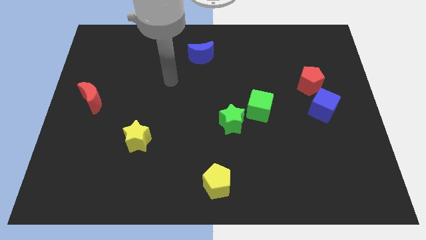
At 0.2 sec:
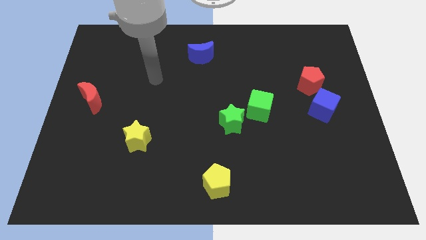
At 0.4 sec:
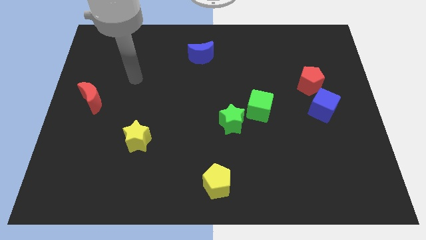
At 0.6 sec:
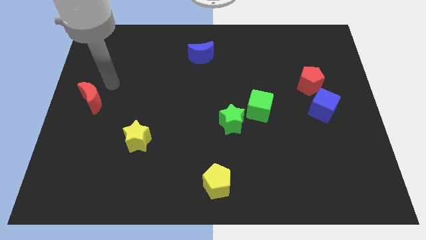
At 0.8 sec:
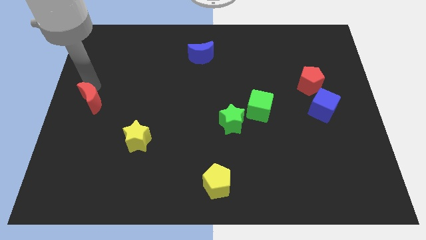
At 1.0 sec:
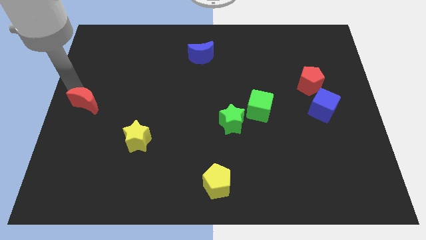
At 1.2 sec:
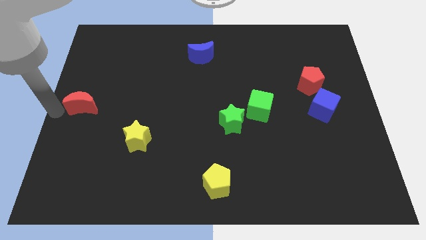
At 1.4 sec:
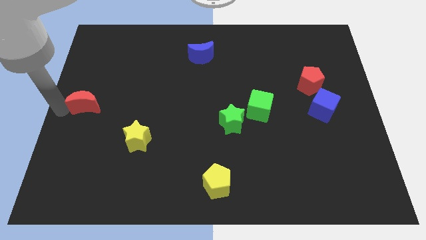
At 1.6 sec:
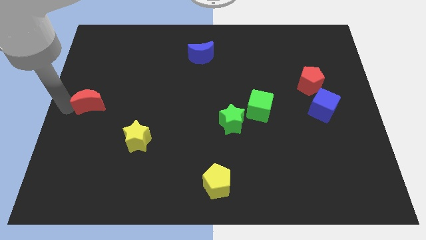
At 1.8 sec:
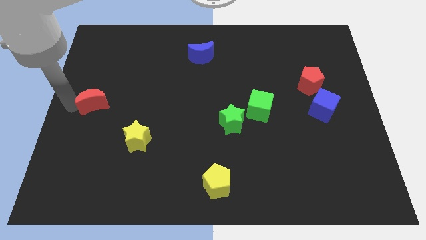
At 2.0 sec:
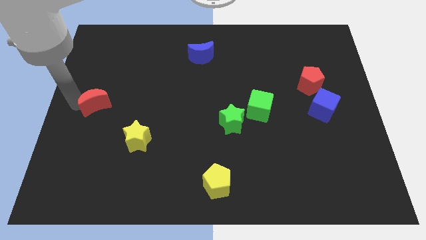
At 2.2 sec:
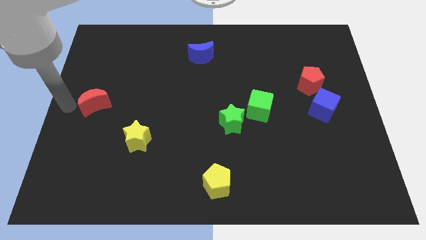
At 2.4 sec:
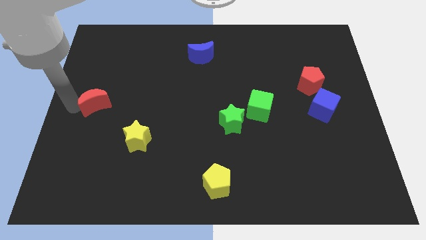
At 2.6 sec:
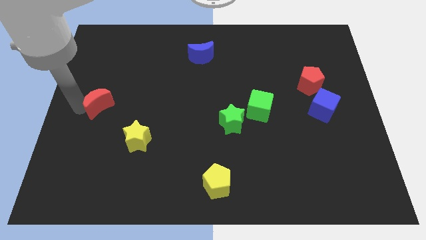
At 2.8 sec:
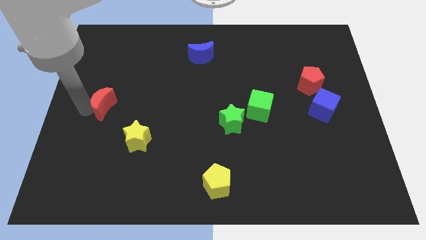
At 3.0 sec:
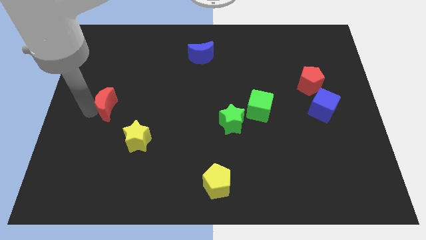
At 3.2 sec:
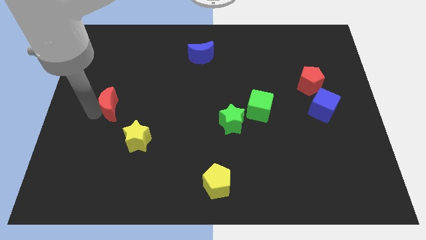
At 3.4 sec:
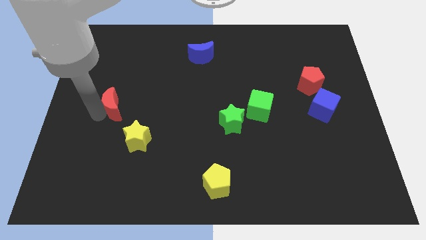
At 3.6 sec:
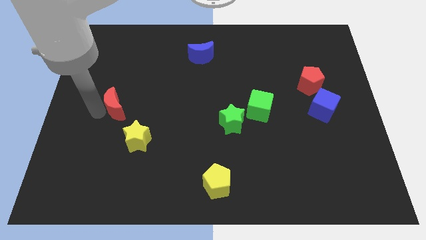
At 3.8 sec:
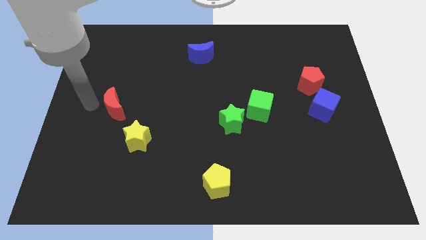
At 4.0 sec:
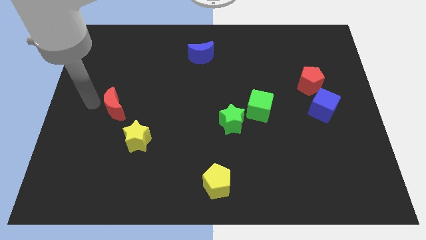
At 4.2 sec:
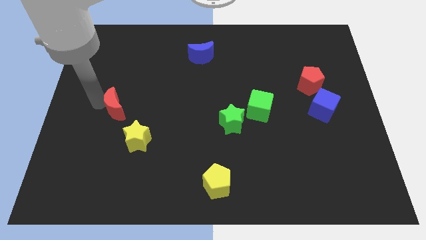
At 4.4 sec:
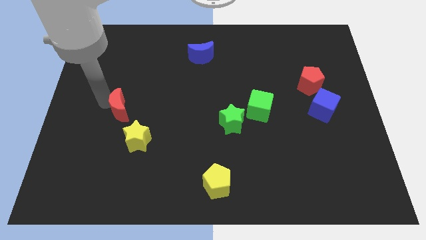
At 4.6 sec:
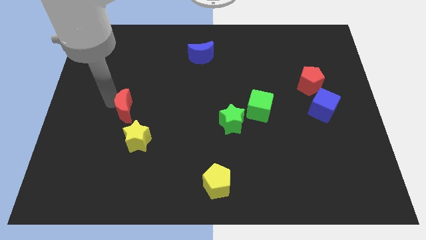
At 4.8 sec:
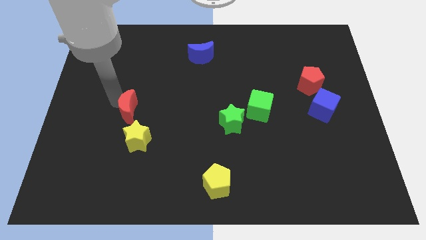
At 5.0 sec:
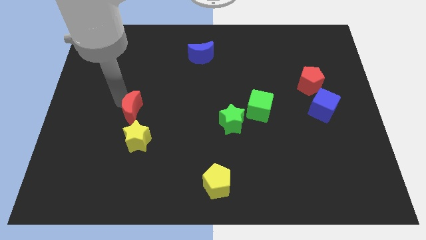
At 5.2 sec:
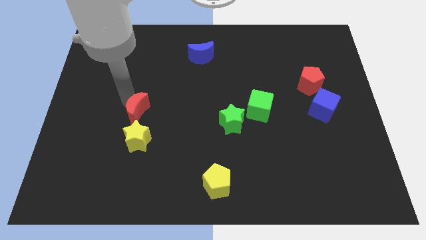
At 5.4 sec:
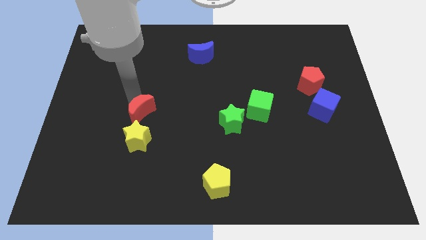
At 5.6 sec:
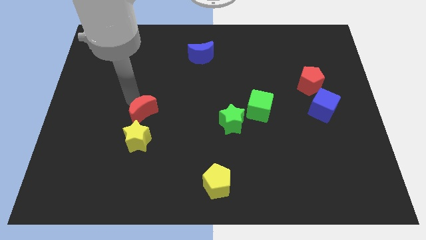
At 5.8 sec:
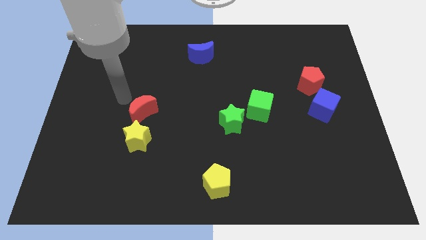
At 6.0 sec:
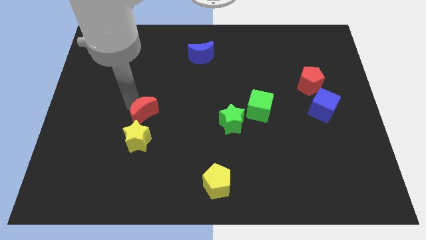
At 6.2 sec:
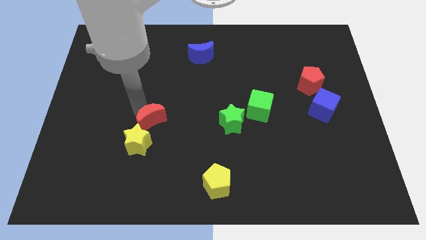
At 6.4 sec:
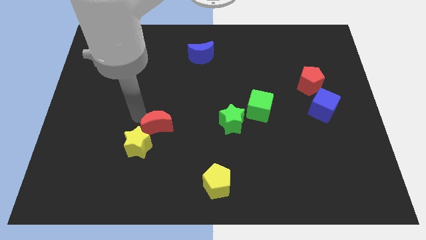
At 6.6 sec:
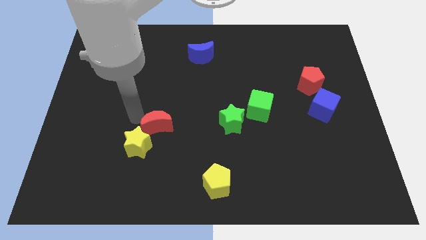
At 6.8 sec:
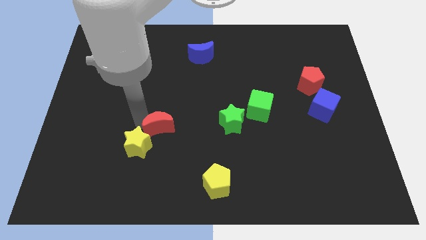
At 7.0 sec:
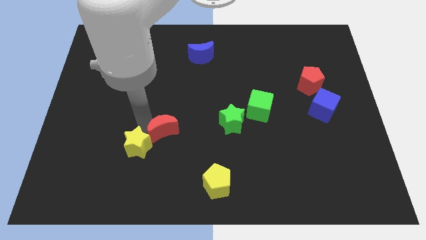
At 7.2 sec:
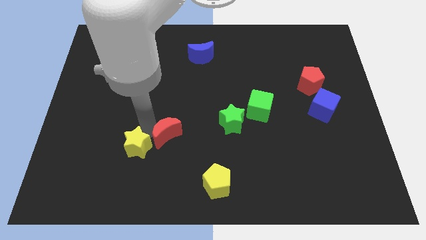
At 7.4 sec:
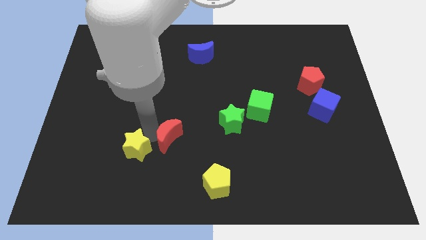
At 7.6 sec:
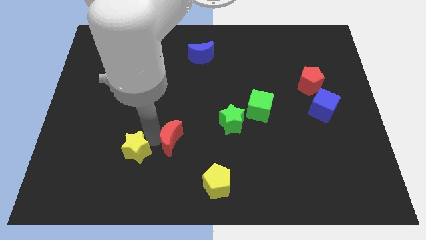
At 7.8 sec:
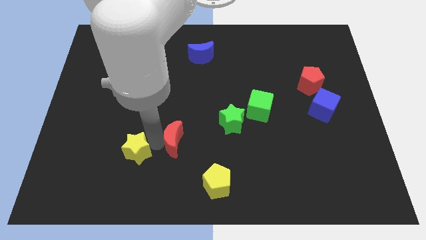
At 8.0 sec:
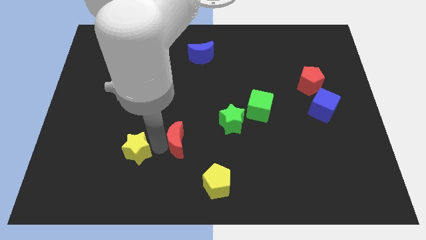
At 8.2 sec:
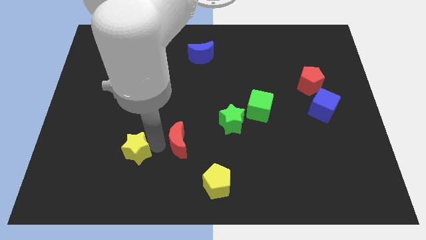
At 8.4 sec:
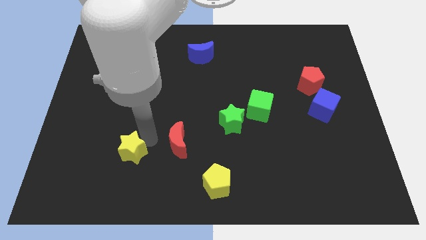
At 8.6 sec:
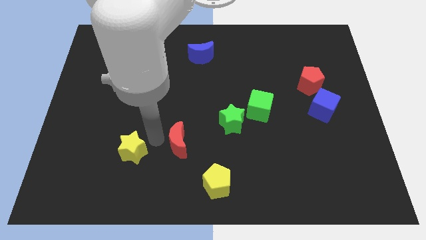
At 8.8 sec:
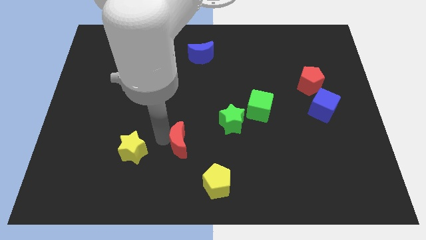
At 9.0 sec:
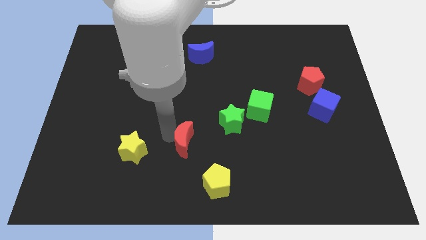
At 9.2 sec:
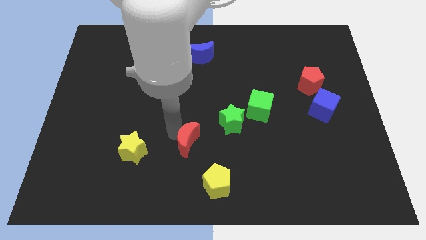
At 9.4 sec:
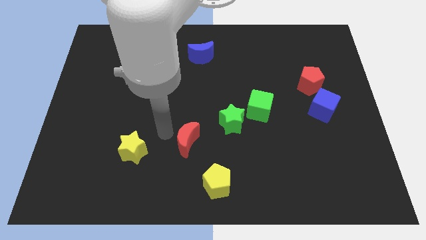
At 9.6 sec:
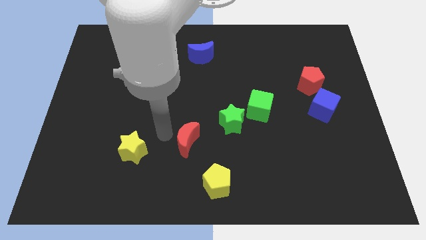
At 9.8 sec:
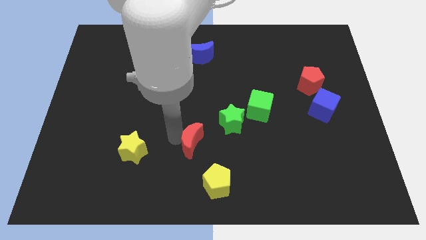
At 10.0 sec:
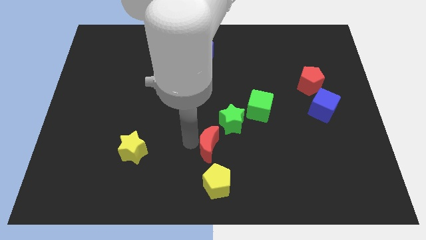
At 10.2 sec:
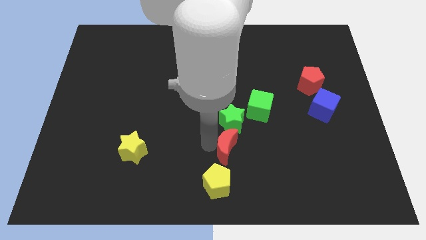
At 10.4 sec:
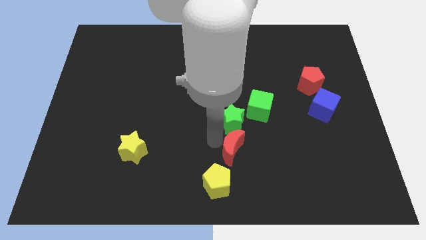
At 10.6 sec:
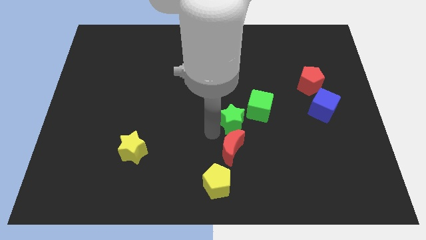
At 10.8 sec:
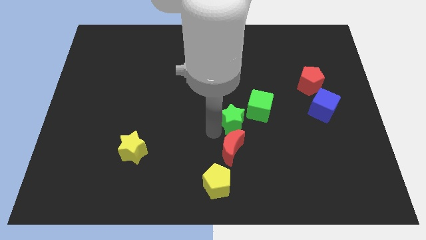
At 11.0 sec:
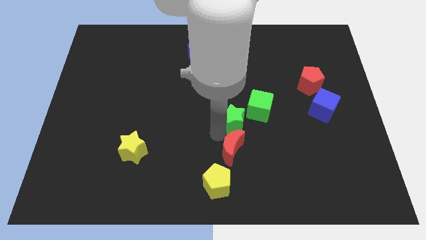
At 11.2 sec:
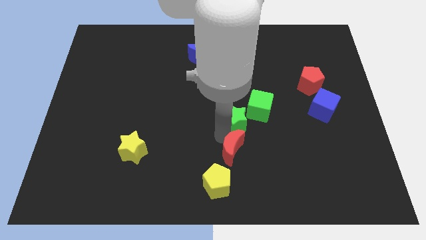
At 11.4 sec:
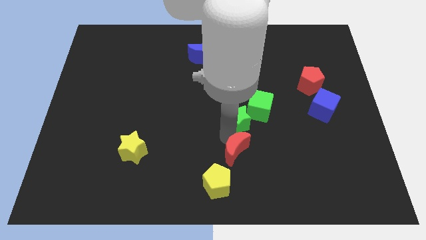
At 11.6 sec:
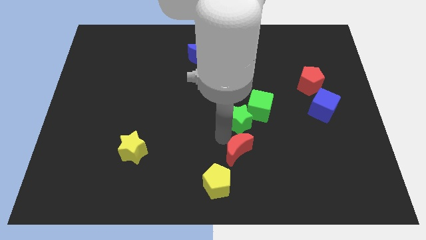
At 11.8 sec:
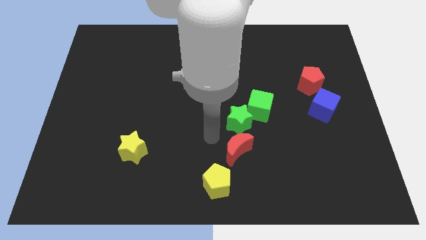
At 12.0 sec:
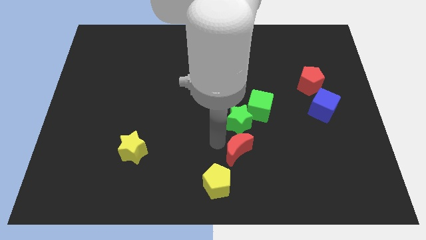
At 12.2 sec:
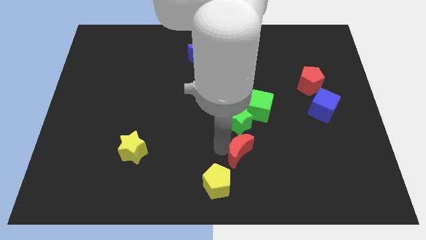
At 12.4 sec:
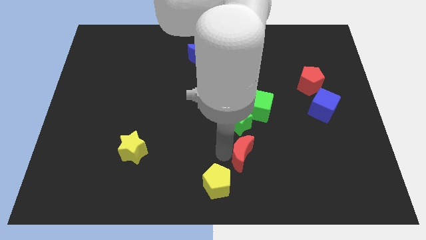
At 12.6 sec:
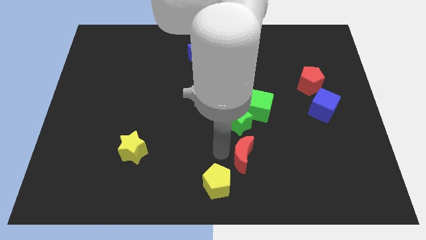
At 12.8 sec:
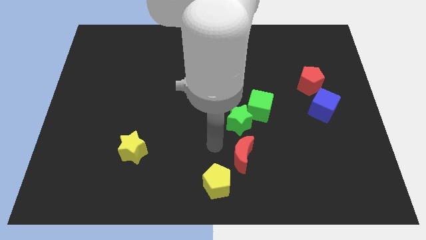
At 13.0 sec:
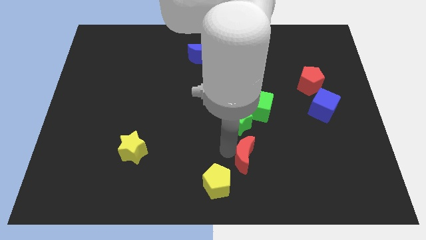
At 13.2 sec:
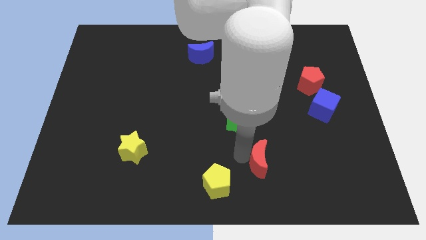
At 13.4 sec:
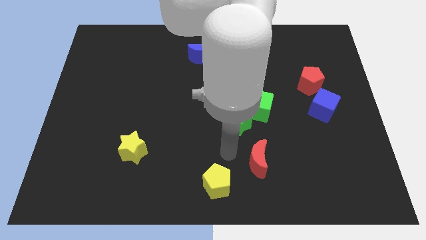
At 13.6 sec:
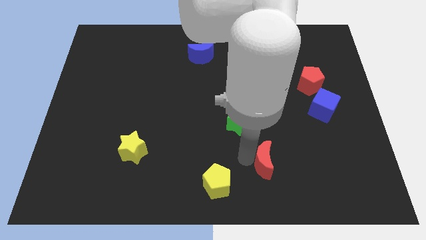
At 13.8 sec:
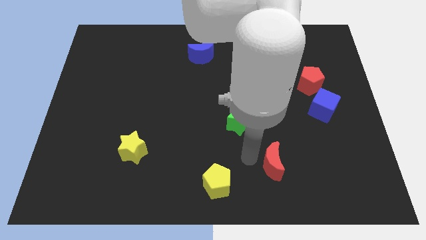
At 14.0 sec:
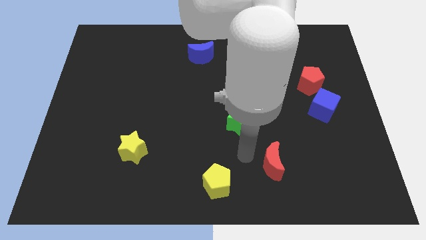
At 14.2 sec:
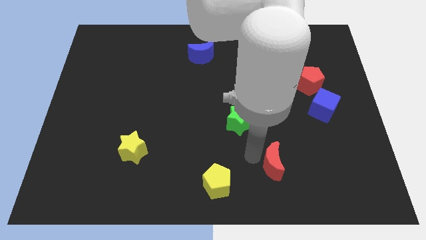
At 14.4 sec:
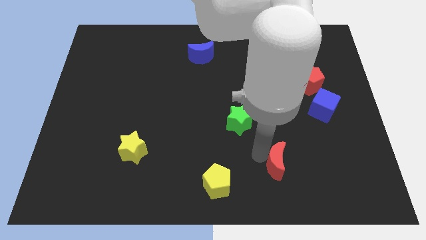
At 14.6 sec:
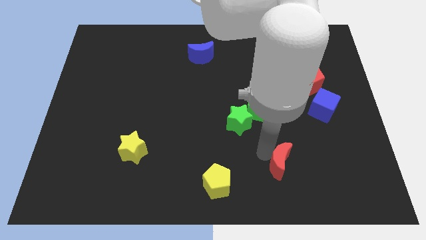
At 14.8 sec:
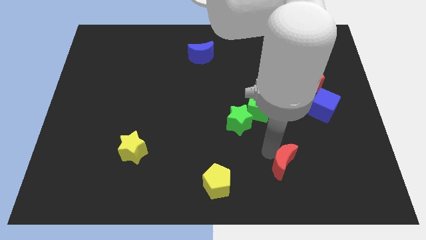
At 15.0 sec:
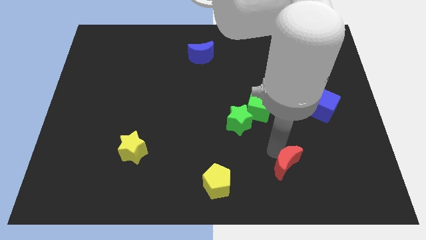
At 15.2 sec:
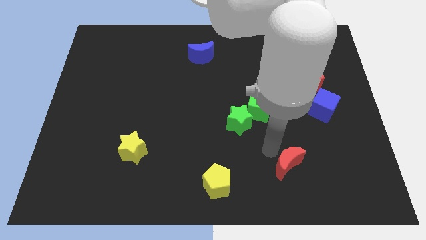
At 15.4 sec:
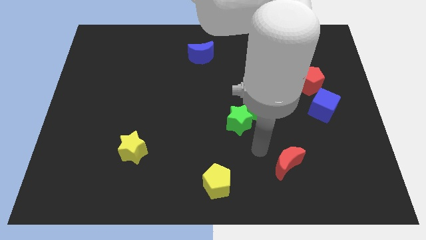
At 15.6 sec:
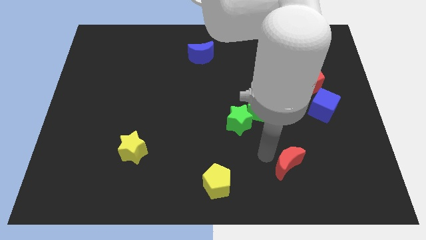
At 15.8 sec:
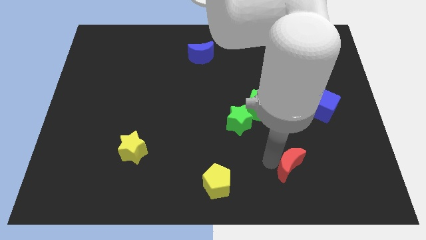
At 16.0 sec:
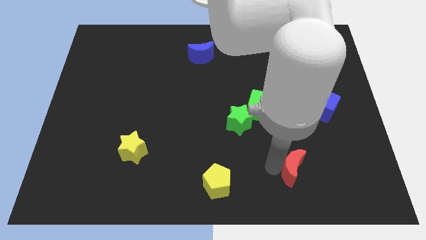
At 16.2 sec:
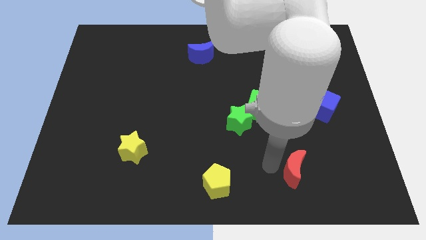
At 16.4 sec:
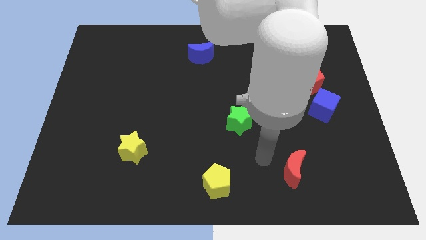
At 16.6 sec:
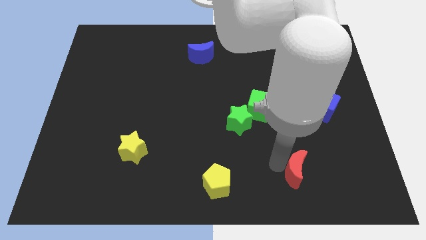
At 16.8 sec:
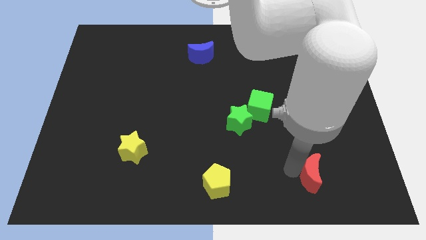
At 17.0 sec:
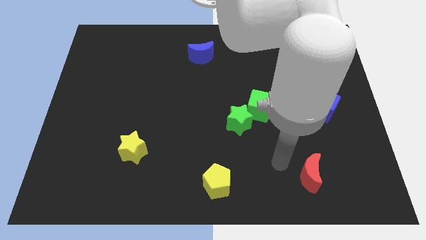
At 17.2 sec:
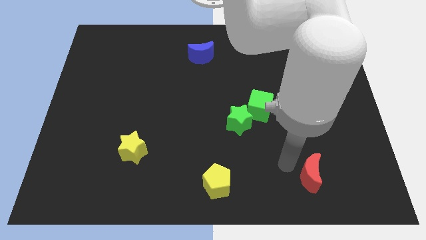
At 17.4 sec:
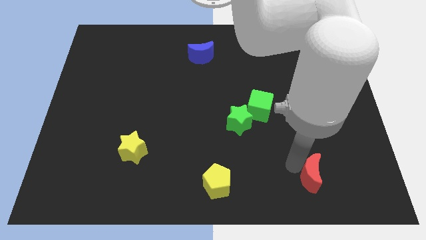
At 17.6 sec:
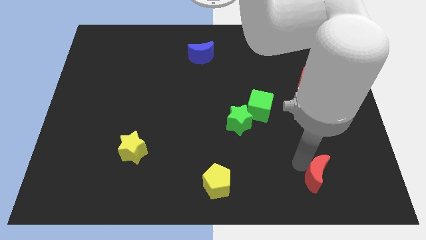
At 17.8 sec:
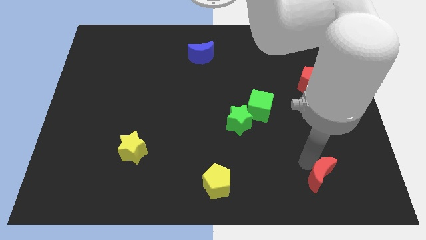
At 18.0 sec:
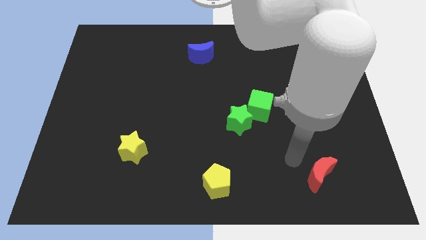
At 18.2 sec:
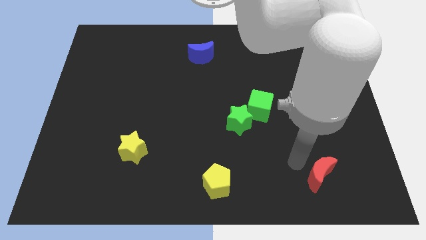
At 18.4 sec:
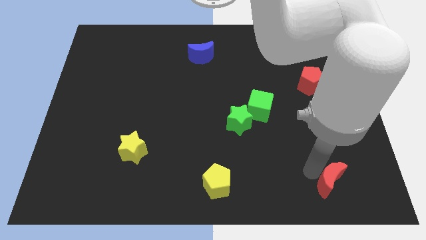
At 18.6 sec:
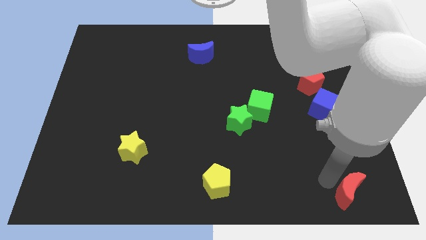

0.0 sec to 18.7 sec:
push the red moon to the bottom right
